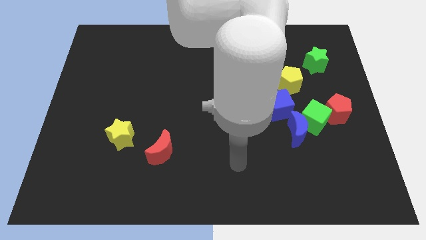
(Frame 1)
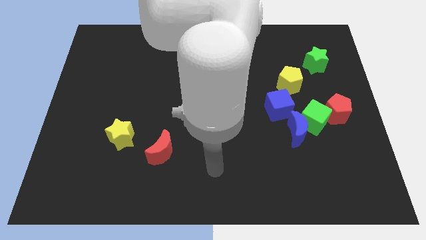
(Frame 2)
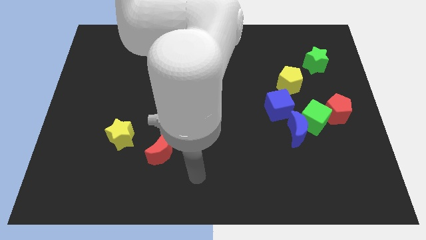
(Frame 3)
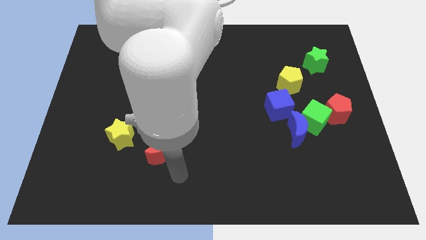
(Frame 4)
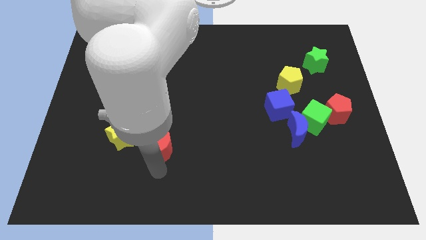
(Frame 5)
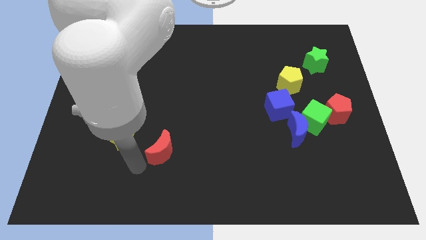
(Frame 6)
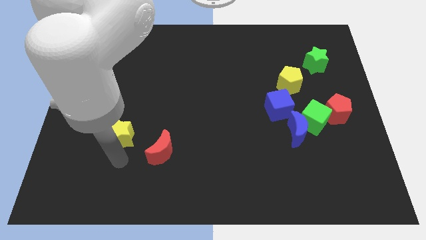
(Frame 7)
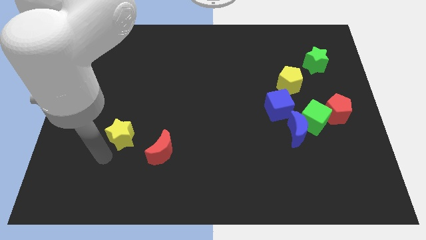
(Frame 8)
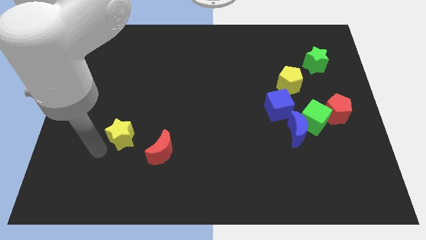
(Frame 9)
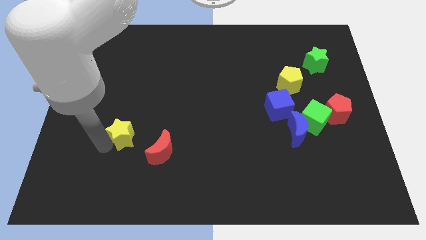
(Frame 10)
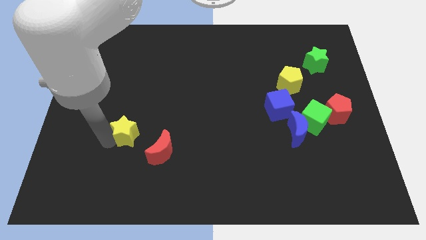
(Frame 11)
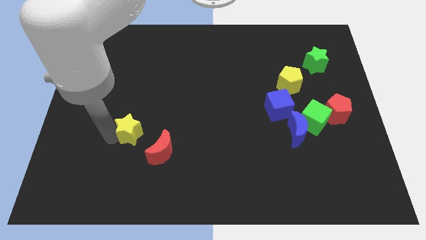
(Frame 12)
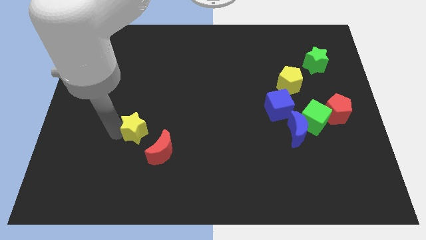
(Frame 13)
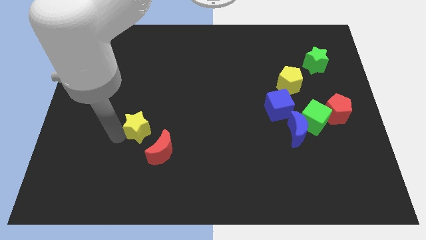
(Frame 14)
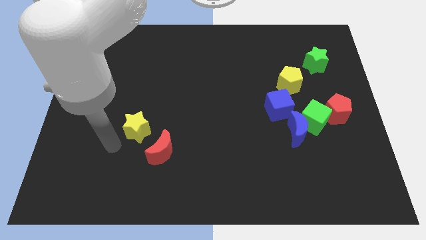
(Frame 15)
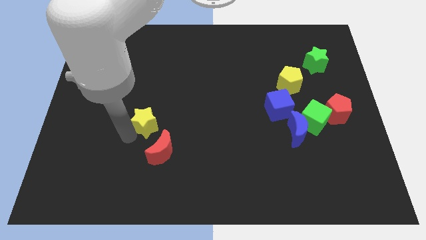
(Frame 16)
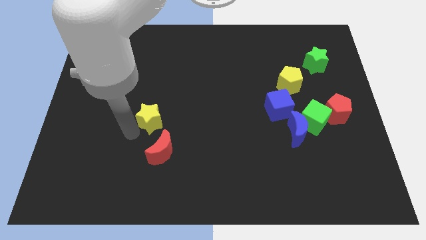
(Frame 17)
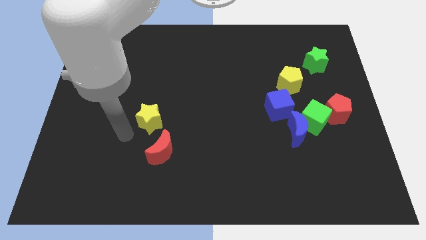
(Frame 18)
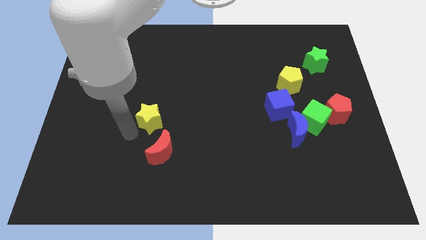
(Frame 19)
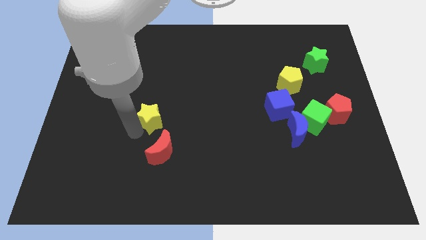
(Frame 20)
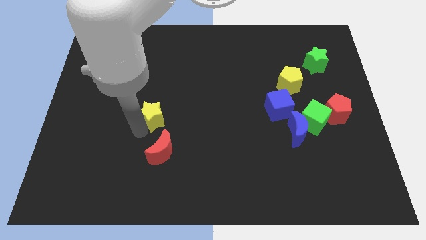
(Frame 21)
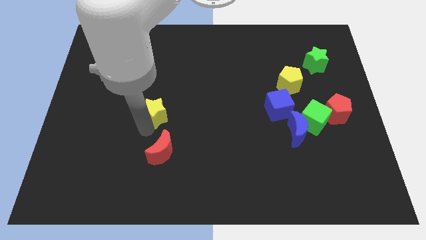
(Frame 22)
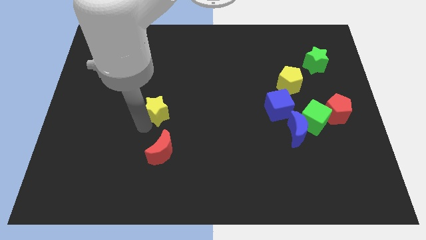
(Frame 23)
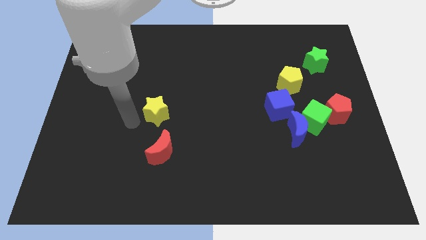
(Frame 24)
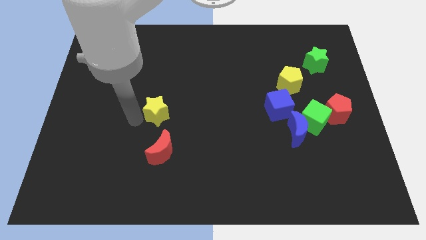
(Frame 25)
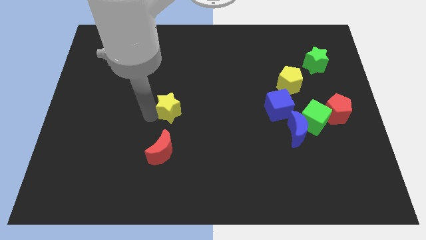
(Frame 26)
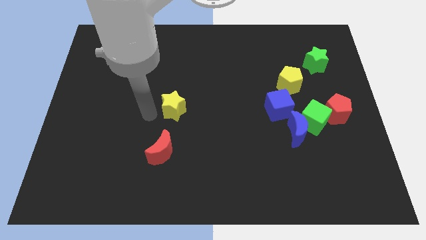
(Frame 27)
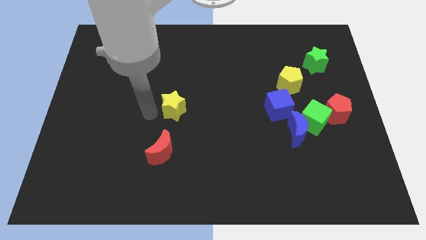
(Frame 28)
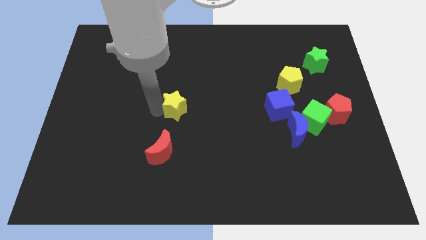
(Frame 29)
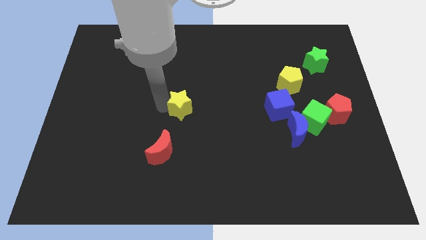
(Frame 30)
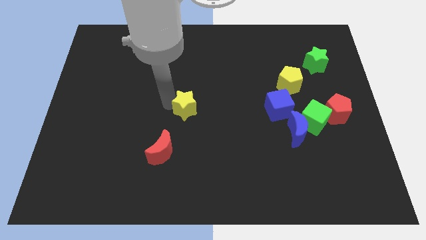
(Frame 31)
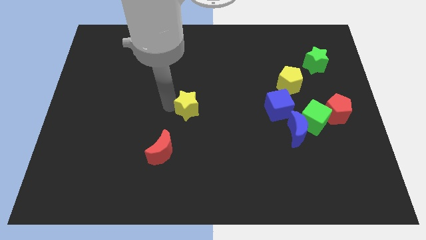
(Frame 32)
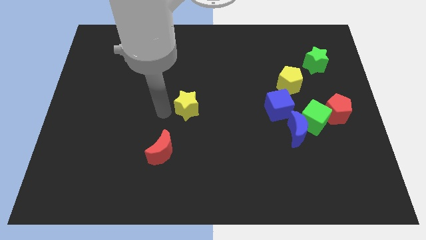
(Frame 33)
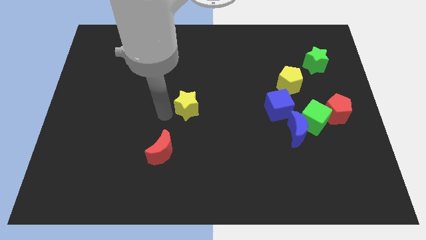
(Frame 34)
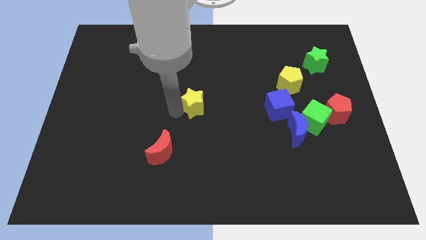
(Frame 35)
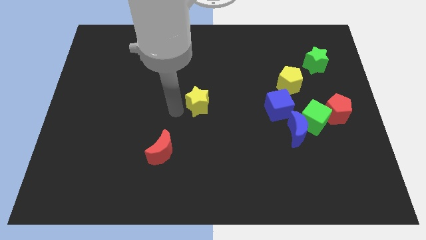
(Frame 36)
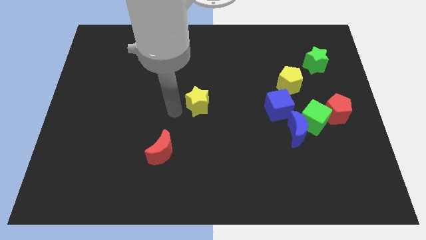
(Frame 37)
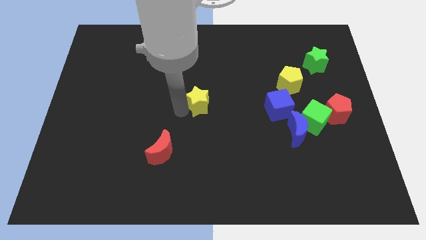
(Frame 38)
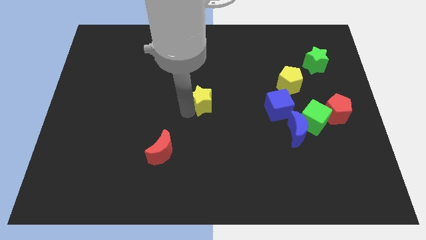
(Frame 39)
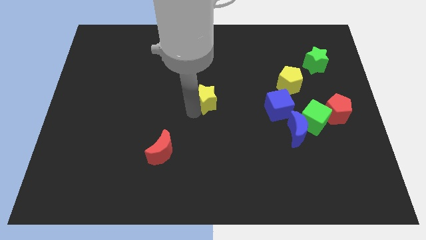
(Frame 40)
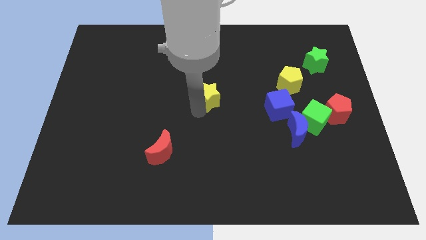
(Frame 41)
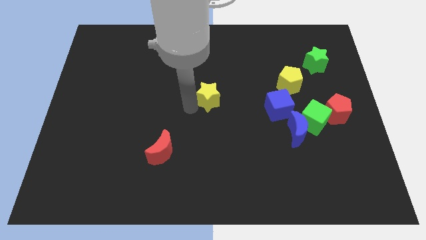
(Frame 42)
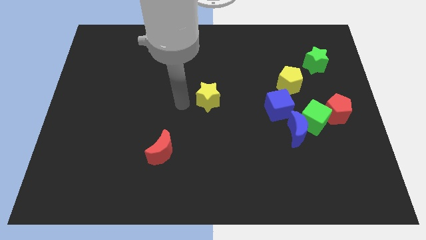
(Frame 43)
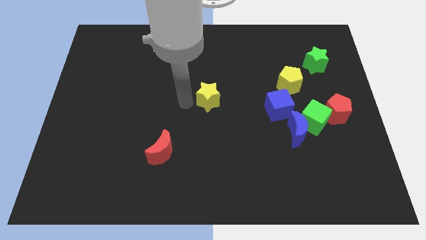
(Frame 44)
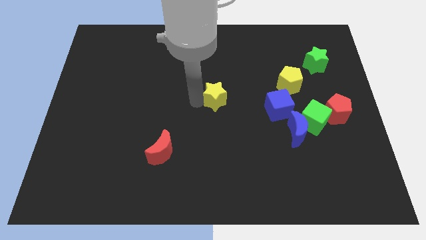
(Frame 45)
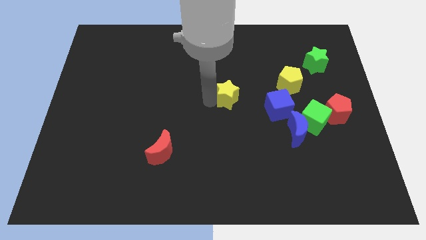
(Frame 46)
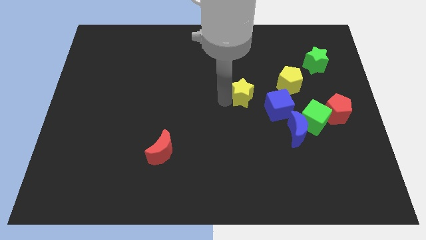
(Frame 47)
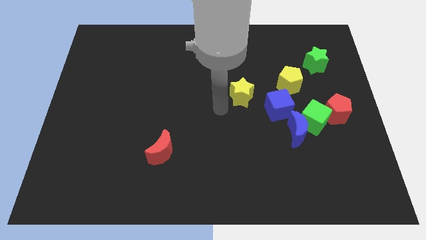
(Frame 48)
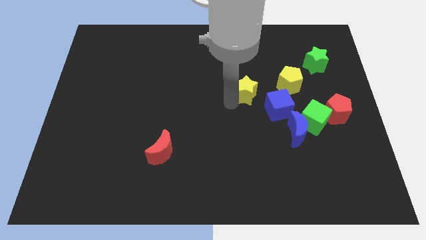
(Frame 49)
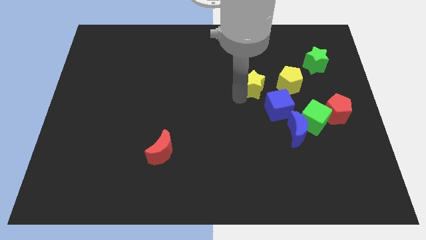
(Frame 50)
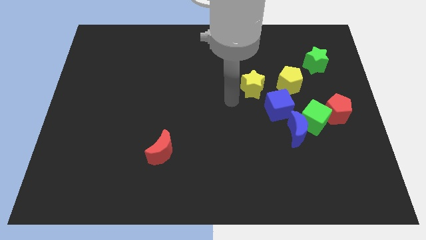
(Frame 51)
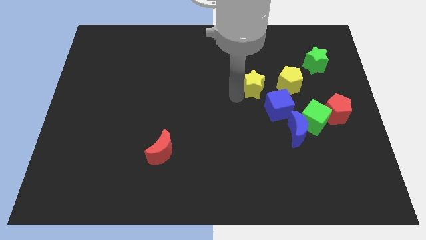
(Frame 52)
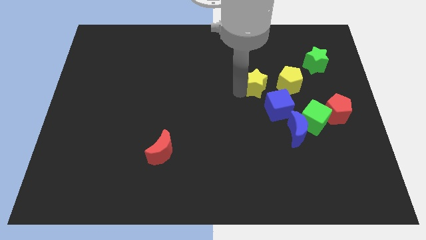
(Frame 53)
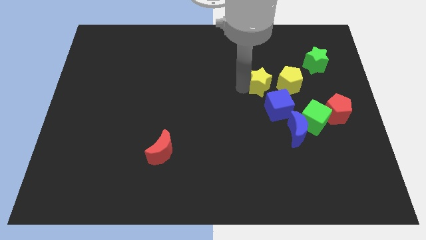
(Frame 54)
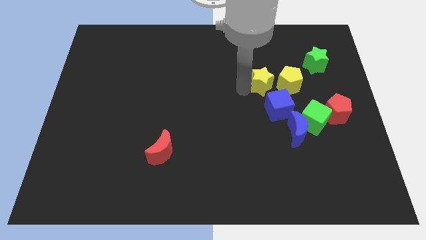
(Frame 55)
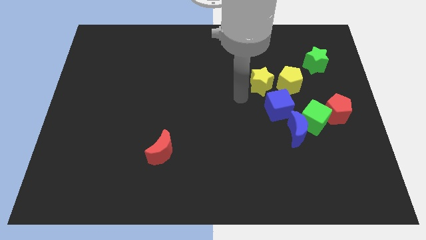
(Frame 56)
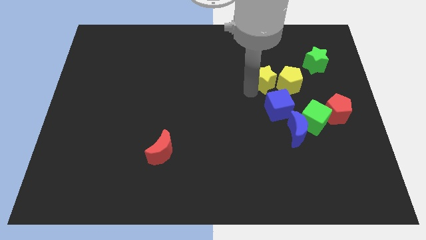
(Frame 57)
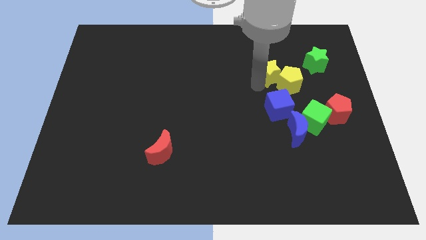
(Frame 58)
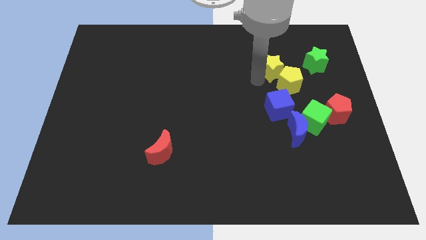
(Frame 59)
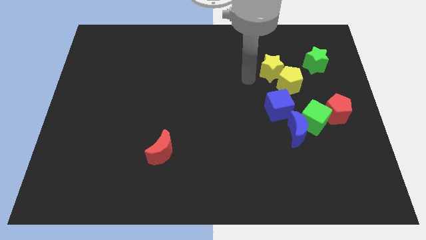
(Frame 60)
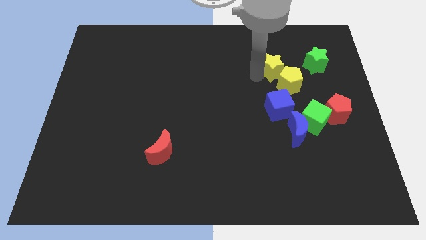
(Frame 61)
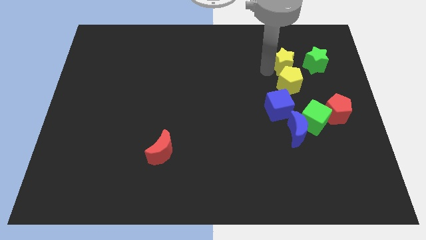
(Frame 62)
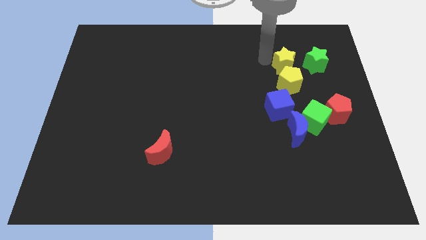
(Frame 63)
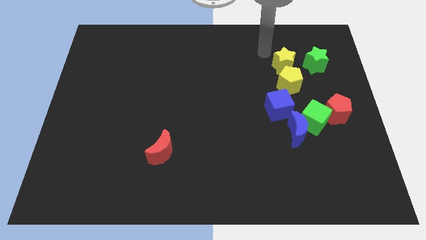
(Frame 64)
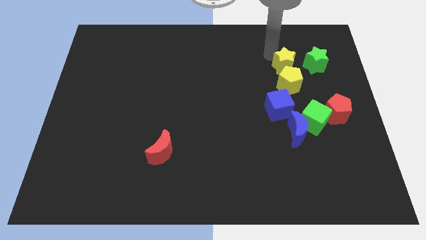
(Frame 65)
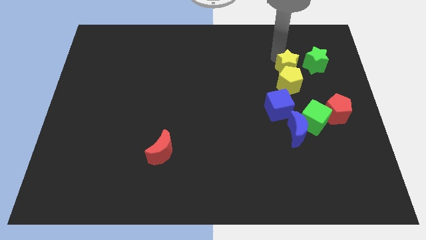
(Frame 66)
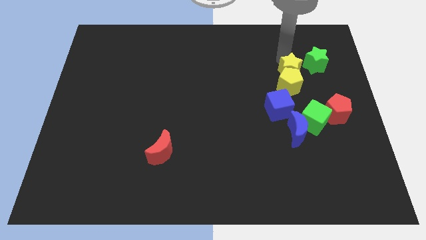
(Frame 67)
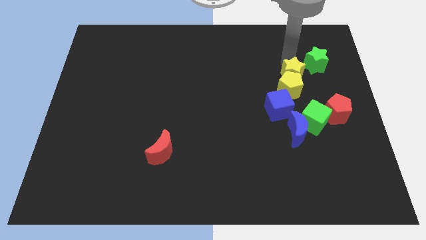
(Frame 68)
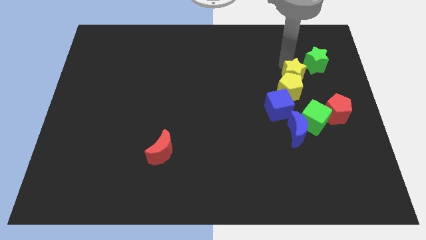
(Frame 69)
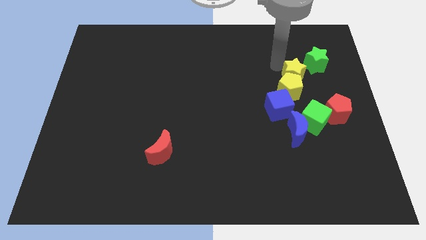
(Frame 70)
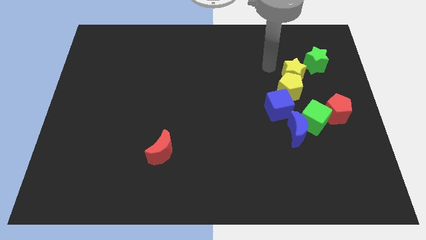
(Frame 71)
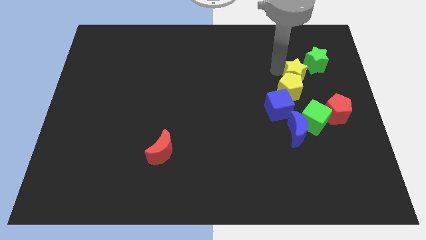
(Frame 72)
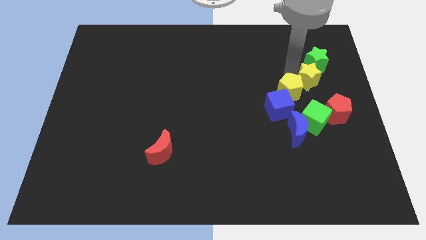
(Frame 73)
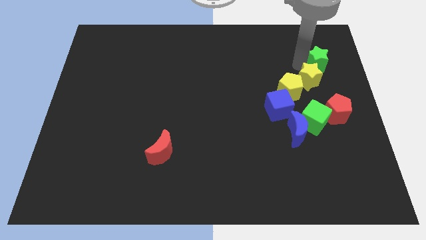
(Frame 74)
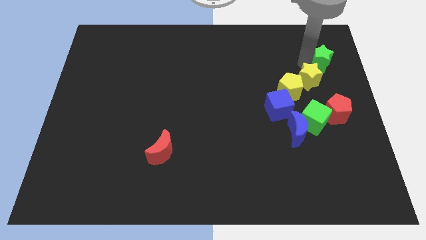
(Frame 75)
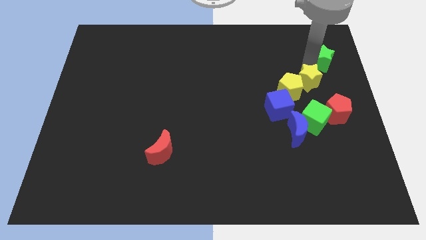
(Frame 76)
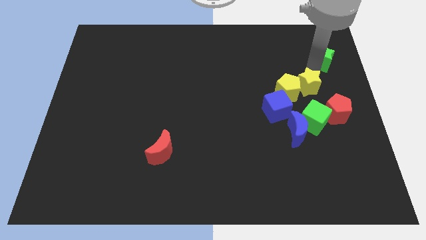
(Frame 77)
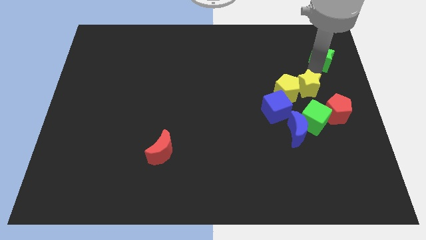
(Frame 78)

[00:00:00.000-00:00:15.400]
move the yellow star to the bottom right side of the yellow pentagon
